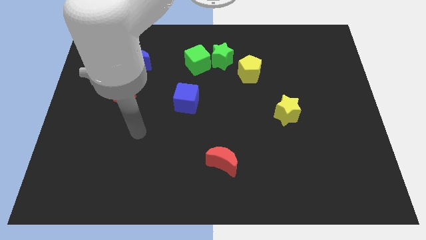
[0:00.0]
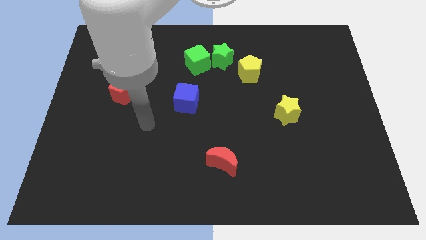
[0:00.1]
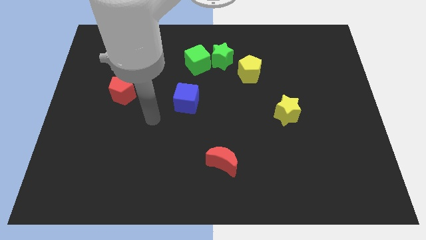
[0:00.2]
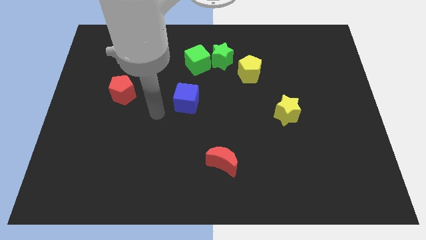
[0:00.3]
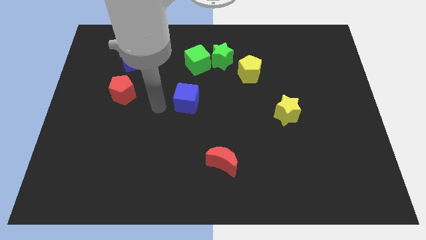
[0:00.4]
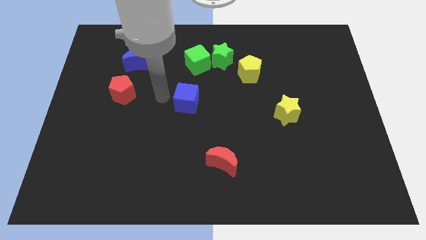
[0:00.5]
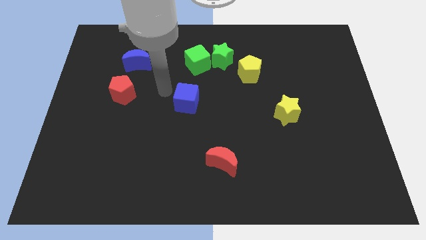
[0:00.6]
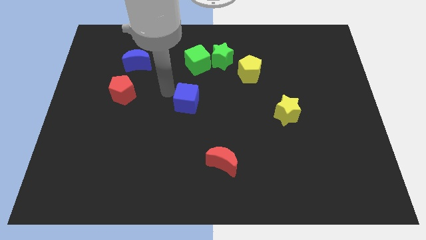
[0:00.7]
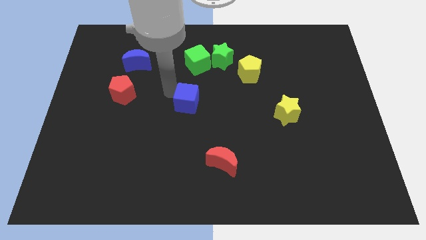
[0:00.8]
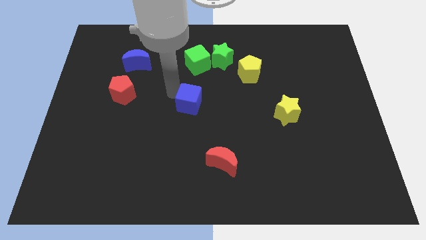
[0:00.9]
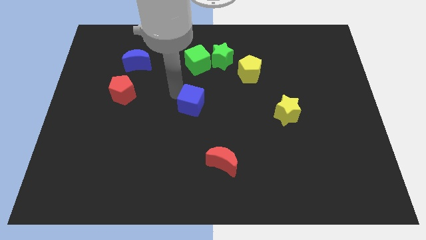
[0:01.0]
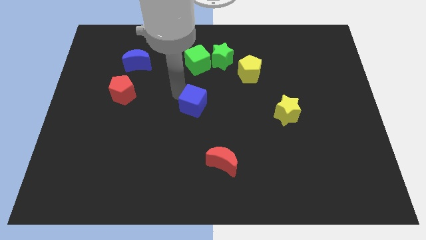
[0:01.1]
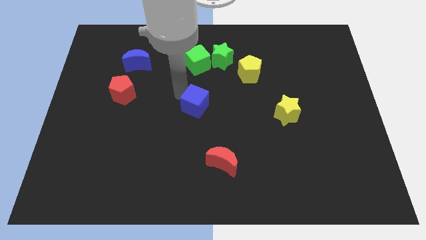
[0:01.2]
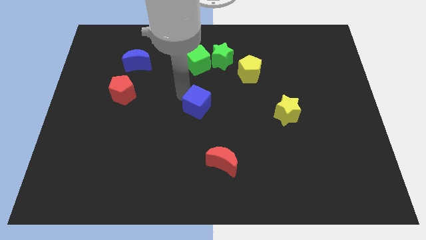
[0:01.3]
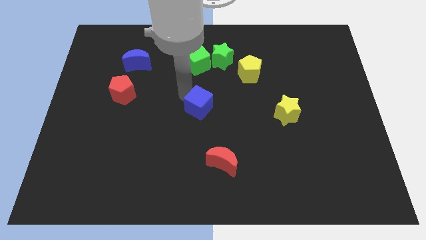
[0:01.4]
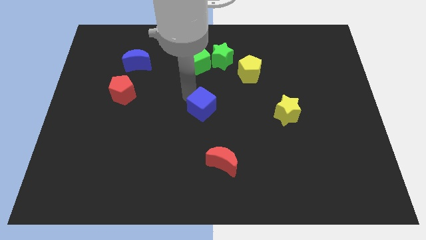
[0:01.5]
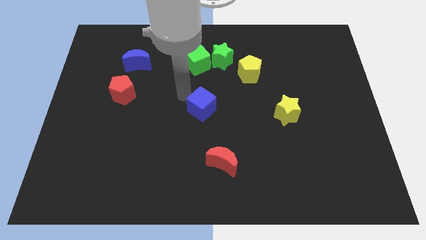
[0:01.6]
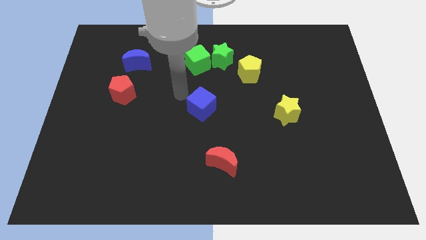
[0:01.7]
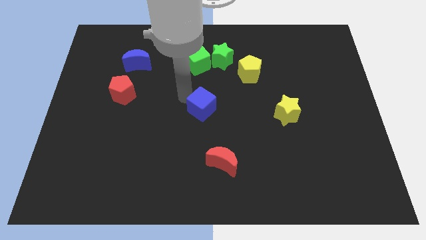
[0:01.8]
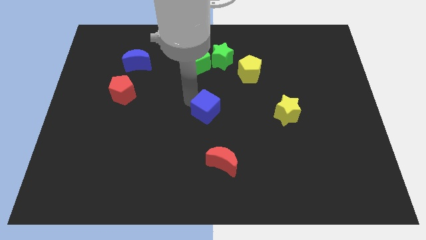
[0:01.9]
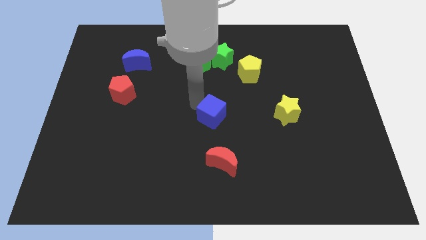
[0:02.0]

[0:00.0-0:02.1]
slide the blue cube diagonally down and to the right a little

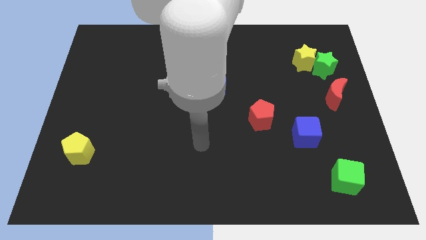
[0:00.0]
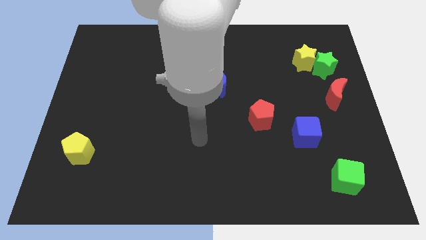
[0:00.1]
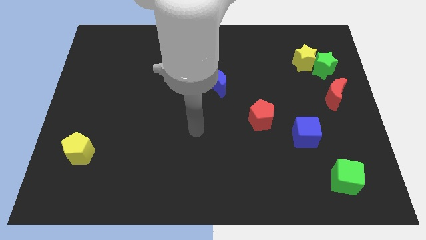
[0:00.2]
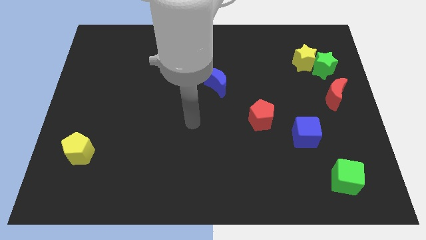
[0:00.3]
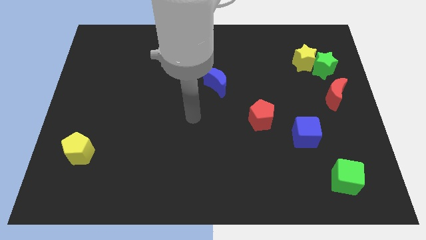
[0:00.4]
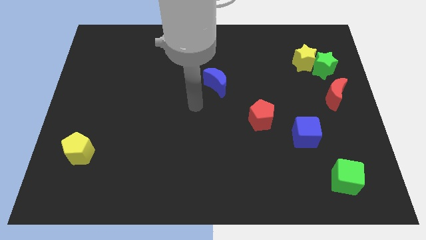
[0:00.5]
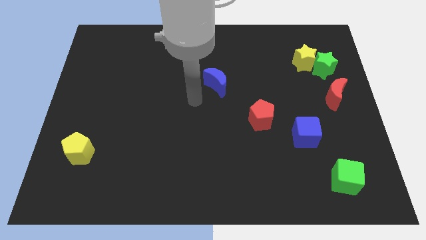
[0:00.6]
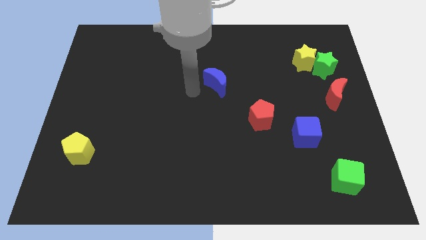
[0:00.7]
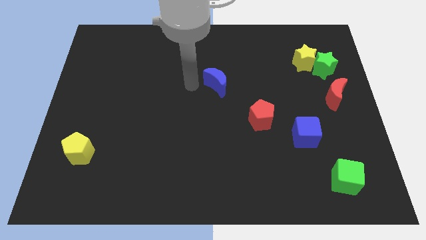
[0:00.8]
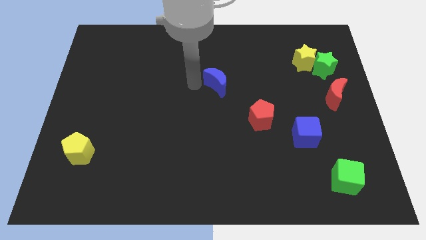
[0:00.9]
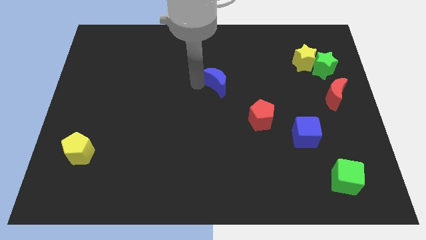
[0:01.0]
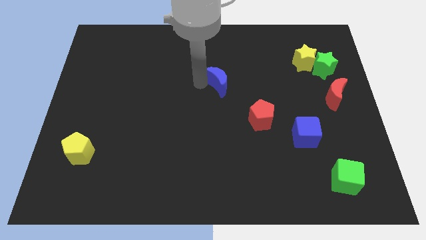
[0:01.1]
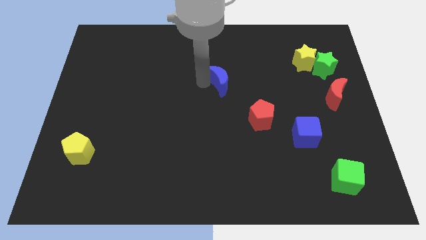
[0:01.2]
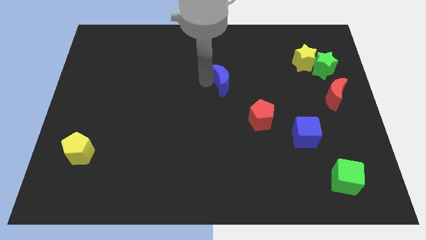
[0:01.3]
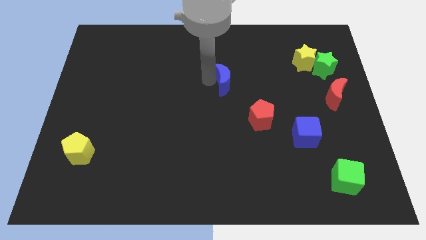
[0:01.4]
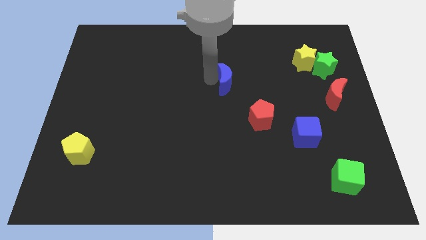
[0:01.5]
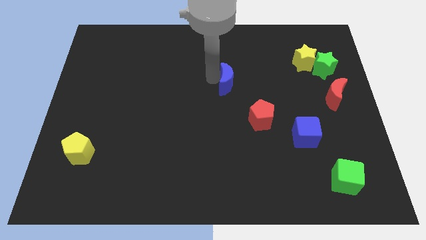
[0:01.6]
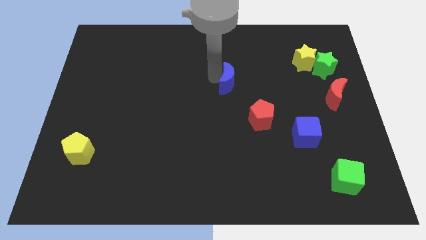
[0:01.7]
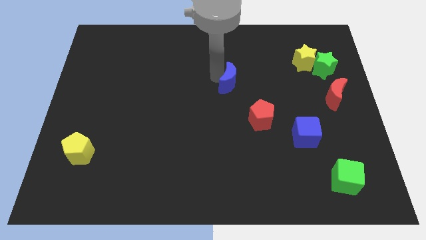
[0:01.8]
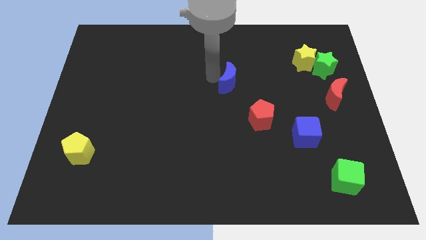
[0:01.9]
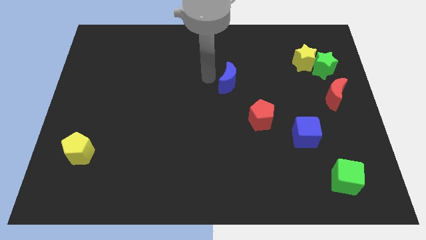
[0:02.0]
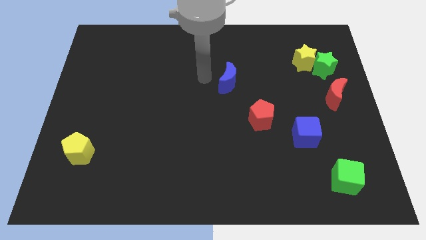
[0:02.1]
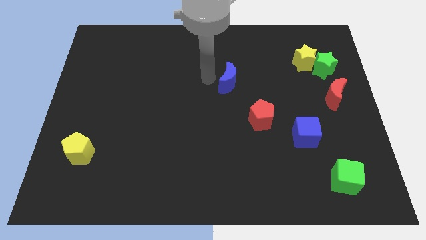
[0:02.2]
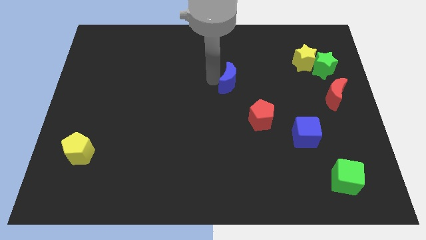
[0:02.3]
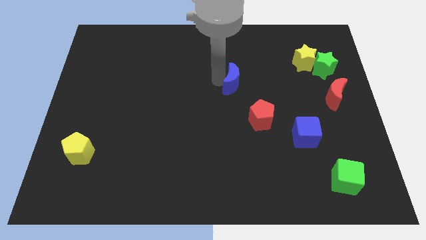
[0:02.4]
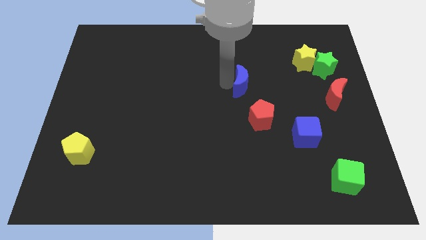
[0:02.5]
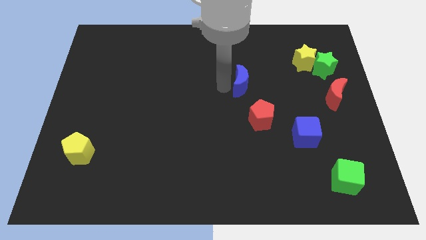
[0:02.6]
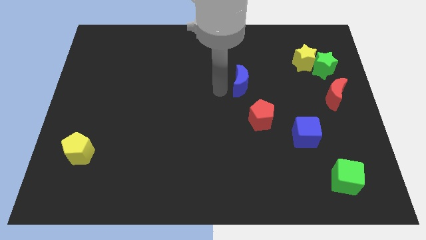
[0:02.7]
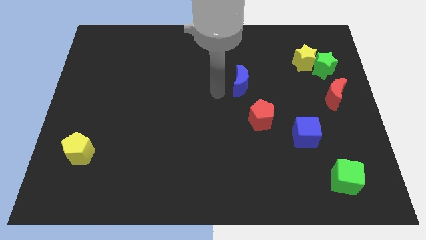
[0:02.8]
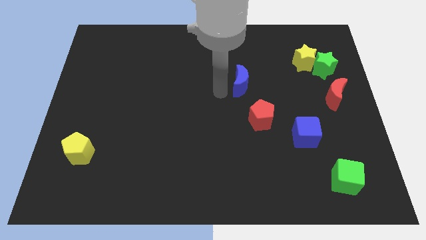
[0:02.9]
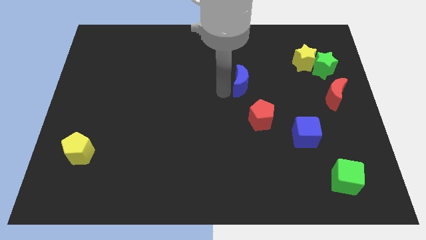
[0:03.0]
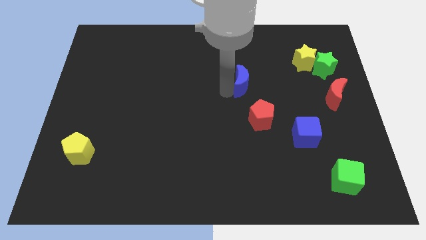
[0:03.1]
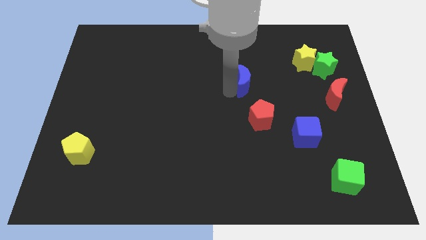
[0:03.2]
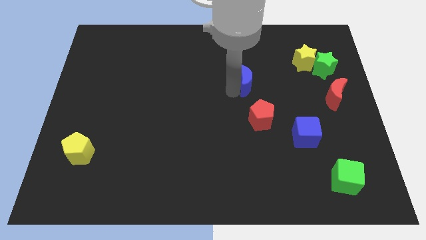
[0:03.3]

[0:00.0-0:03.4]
move the blue moon a little bit to the right

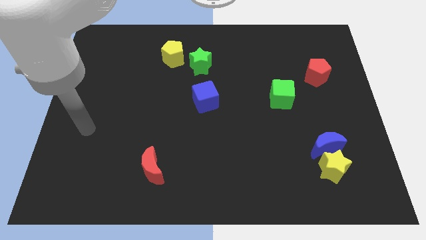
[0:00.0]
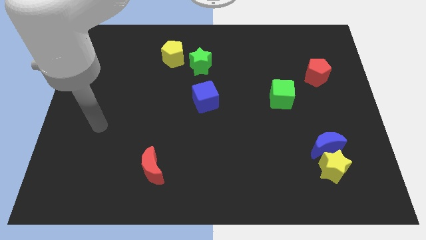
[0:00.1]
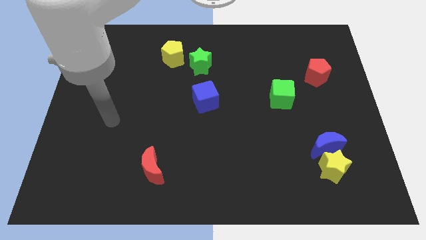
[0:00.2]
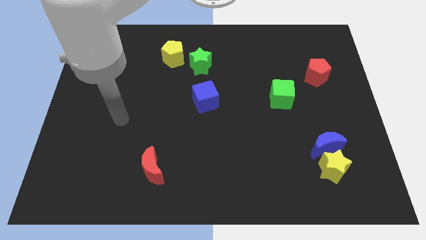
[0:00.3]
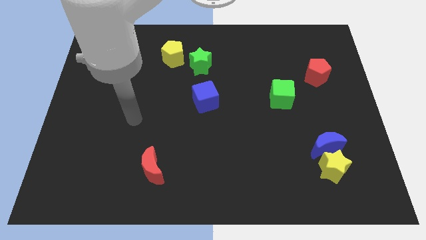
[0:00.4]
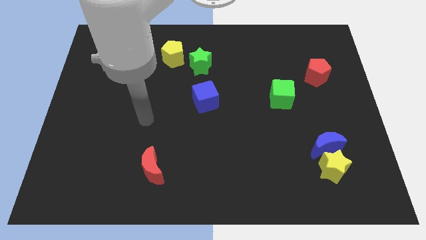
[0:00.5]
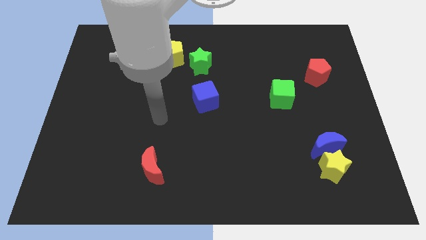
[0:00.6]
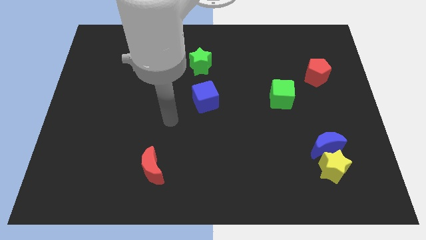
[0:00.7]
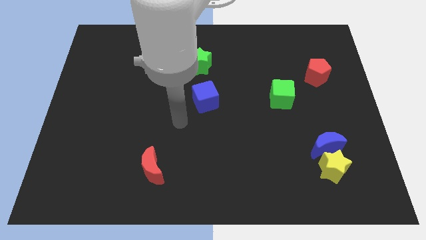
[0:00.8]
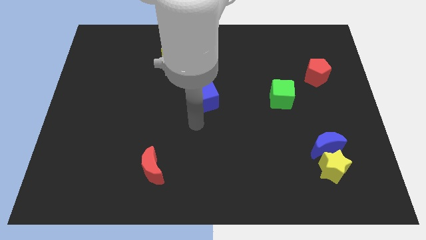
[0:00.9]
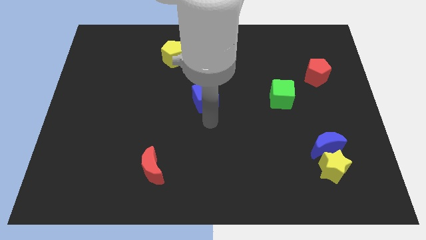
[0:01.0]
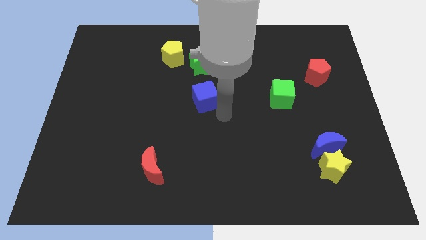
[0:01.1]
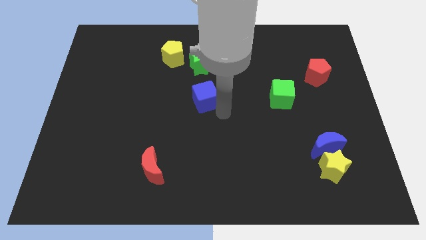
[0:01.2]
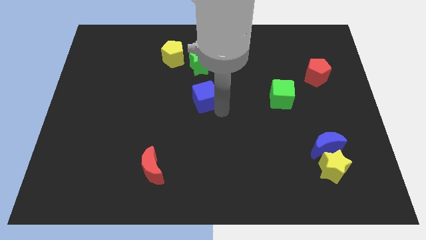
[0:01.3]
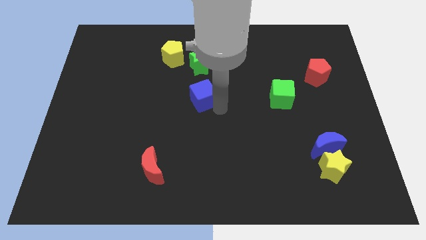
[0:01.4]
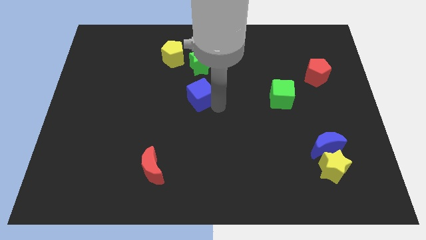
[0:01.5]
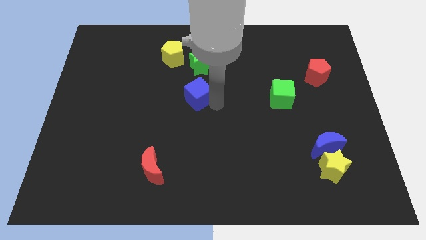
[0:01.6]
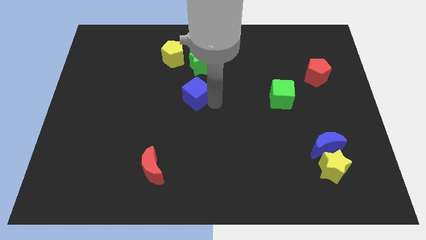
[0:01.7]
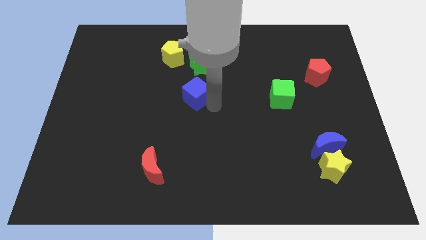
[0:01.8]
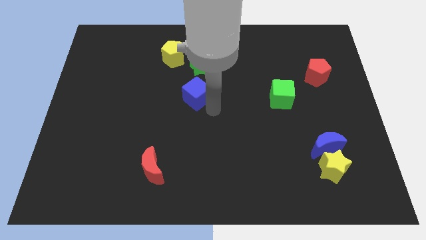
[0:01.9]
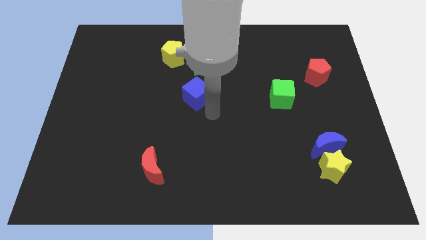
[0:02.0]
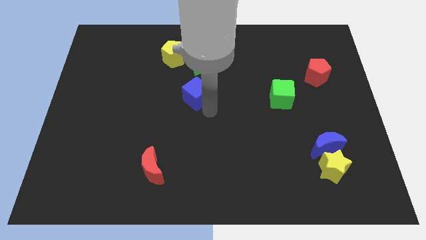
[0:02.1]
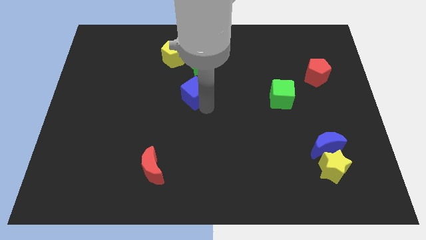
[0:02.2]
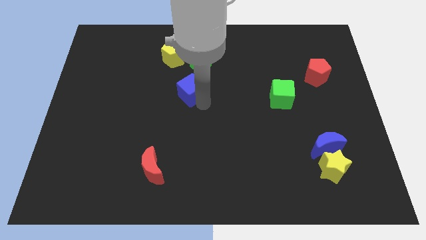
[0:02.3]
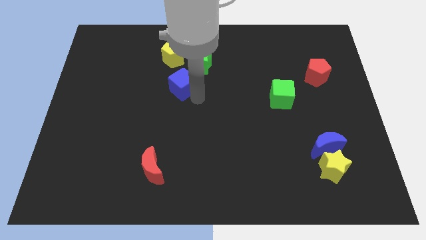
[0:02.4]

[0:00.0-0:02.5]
slightly slide the blue cube diagonally upwards and to the left

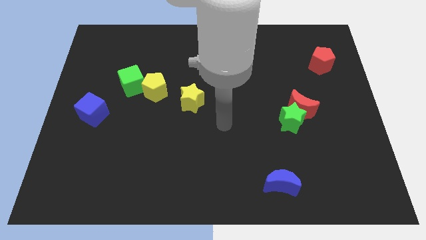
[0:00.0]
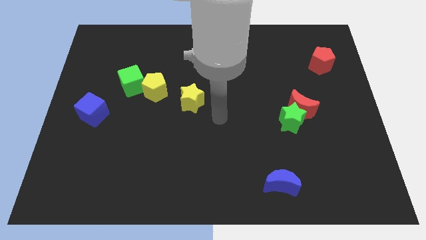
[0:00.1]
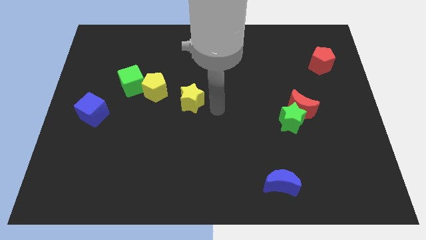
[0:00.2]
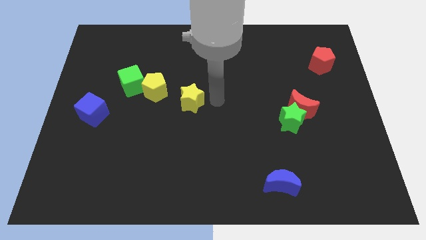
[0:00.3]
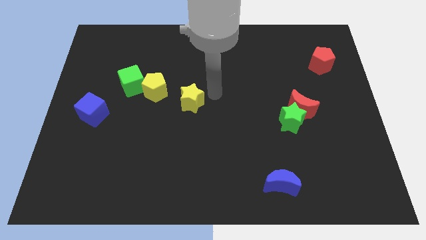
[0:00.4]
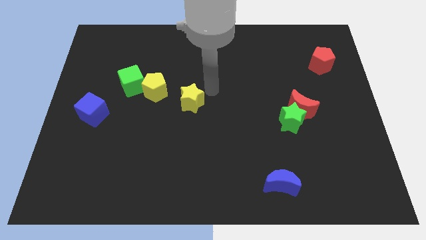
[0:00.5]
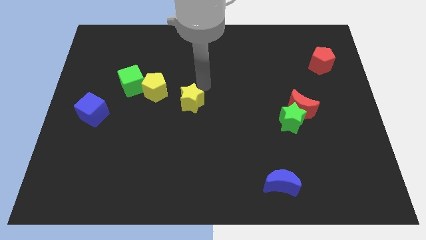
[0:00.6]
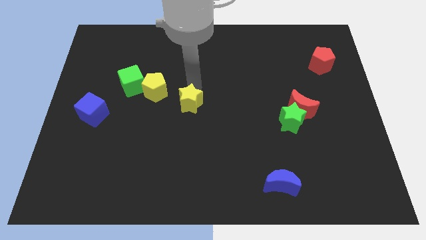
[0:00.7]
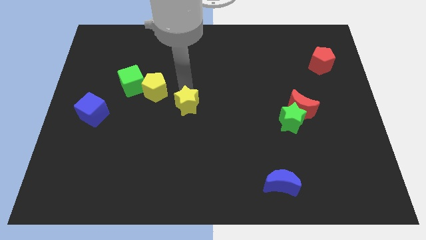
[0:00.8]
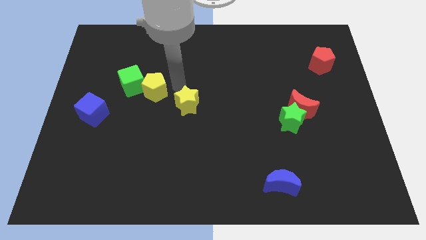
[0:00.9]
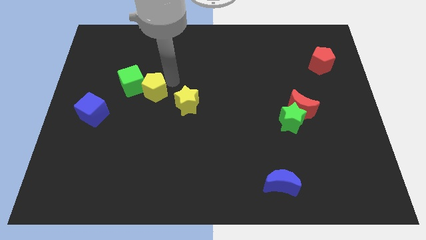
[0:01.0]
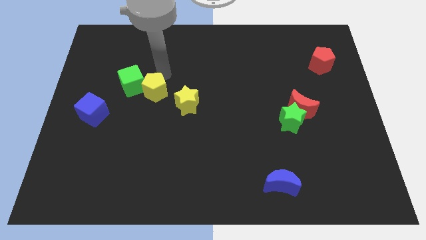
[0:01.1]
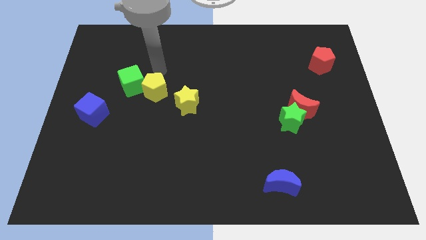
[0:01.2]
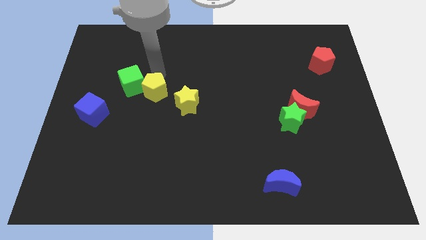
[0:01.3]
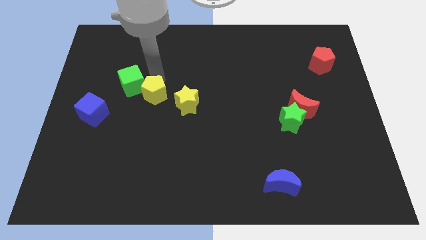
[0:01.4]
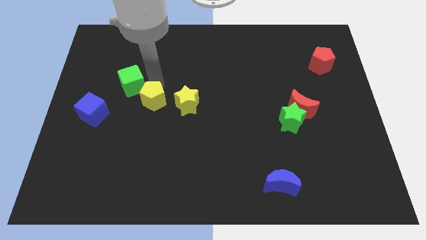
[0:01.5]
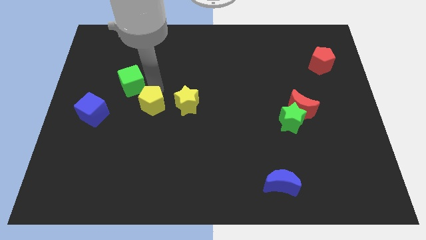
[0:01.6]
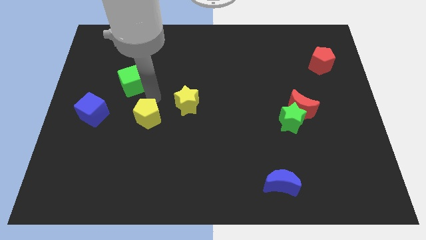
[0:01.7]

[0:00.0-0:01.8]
slightly slide the yellow pentagon down
